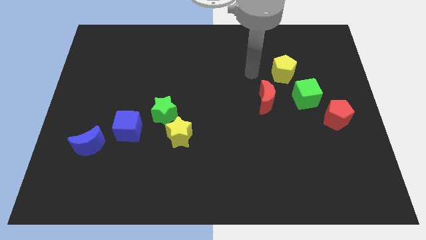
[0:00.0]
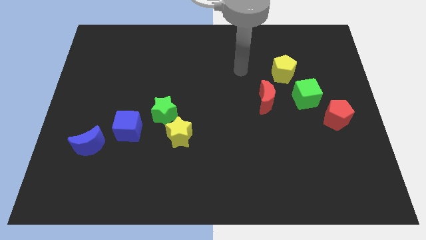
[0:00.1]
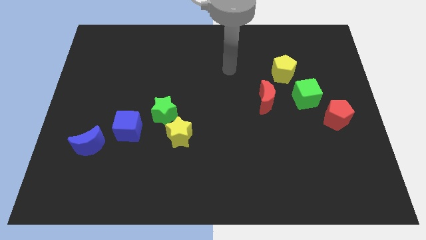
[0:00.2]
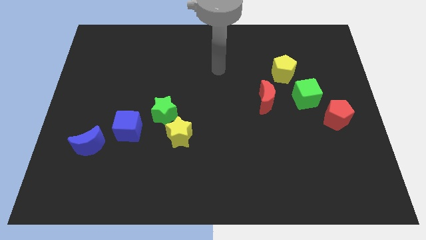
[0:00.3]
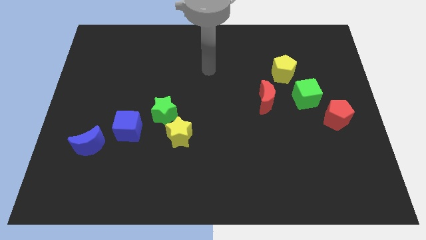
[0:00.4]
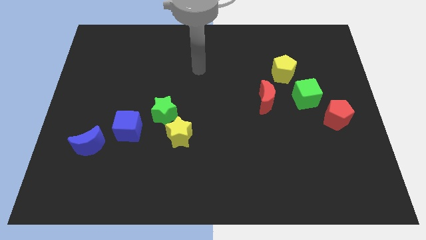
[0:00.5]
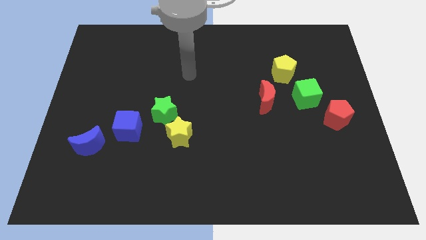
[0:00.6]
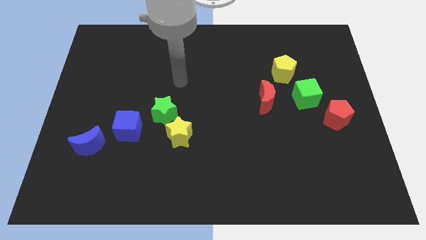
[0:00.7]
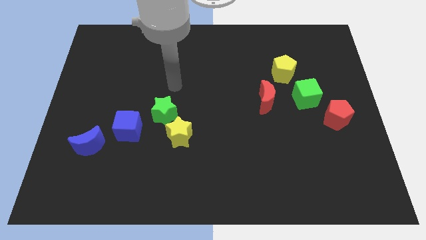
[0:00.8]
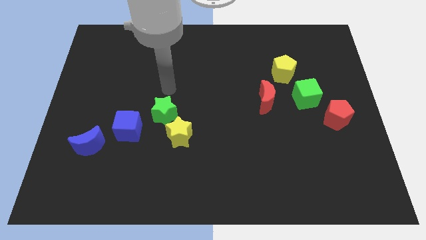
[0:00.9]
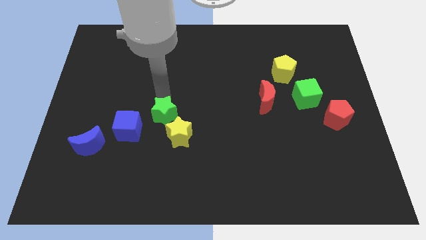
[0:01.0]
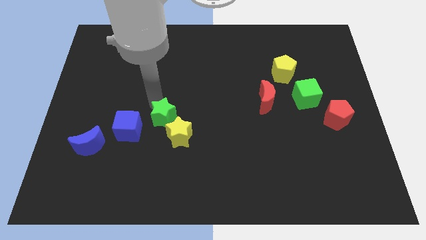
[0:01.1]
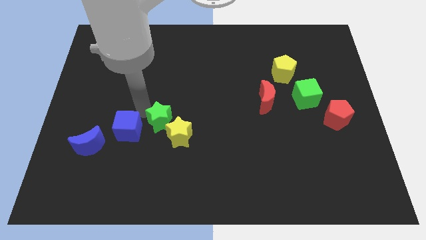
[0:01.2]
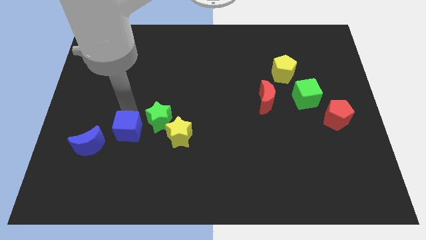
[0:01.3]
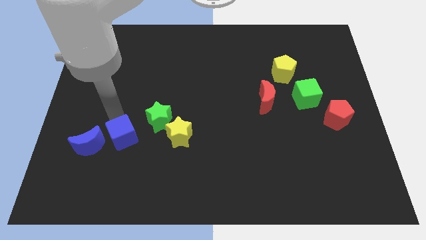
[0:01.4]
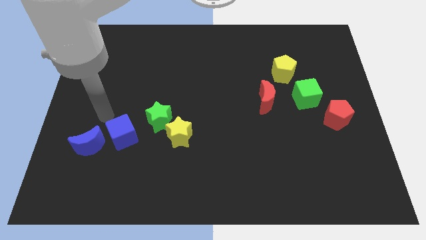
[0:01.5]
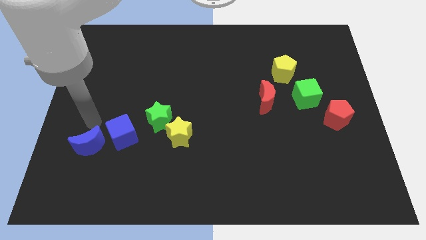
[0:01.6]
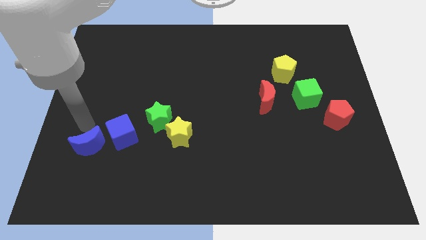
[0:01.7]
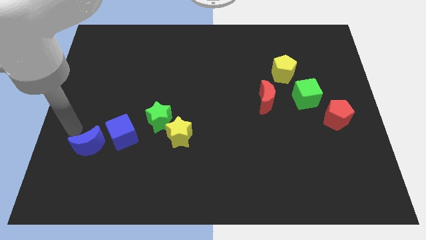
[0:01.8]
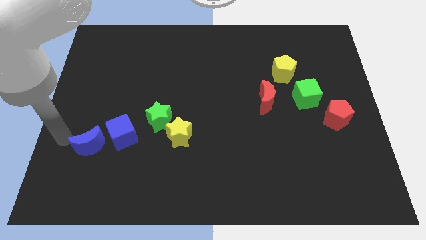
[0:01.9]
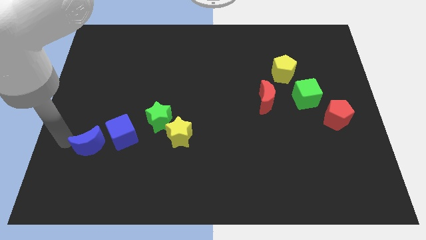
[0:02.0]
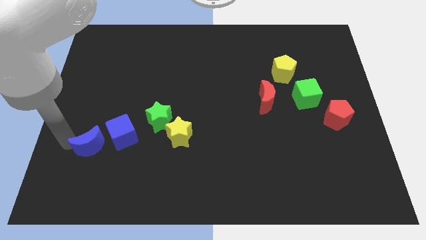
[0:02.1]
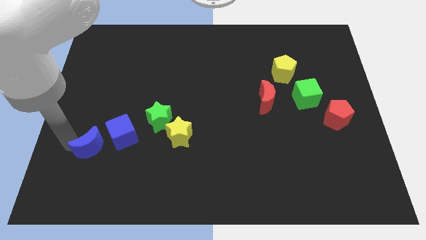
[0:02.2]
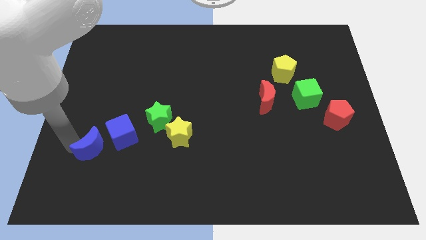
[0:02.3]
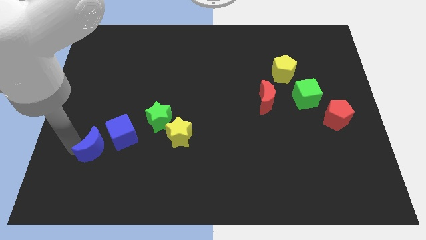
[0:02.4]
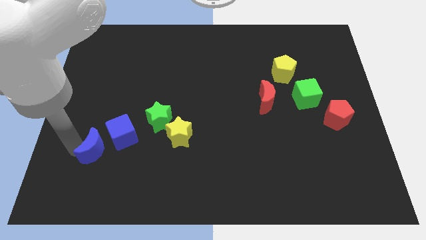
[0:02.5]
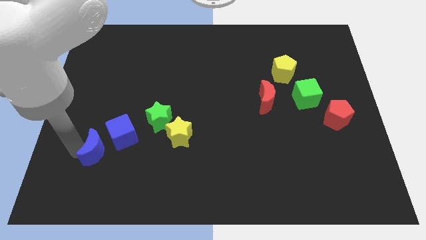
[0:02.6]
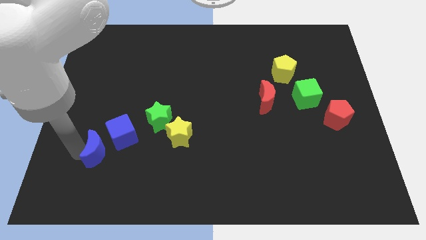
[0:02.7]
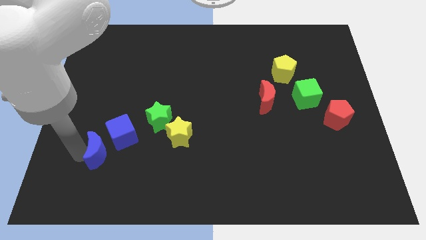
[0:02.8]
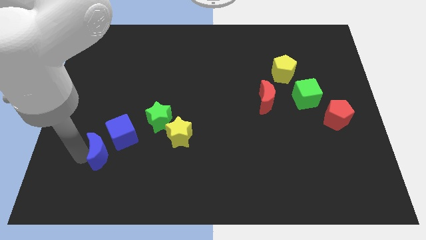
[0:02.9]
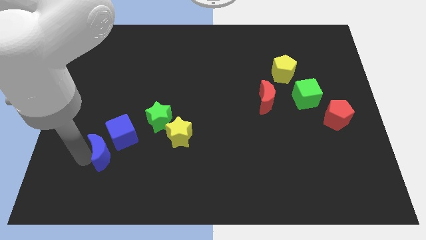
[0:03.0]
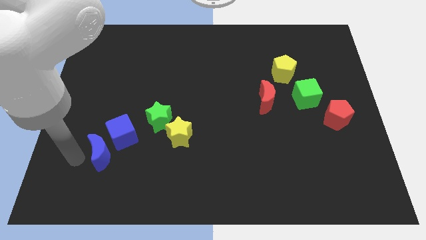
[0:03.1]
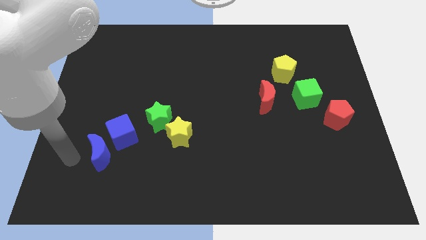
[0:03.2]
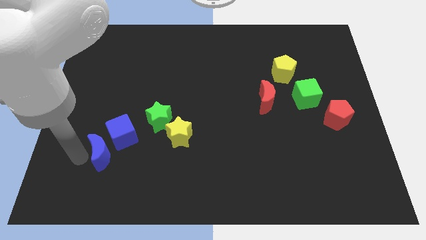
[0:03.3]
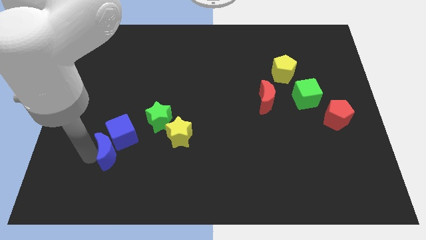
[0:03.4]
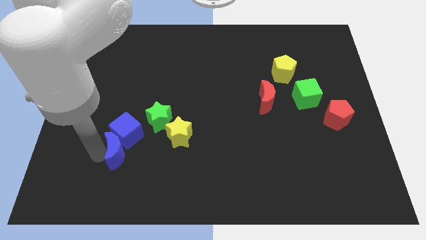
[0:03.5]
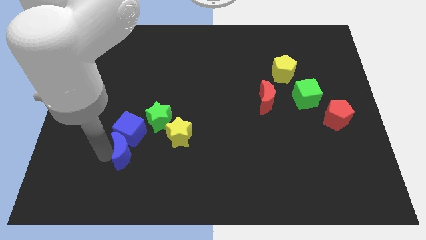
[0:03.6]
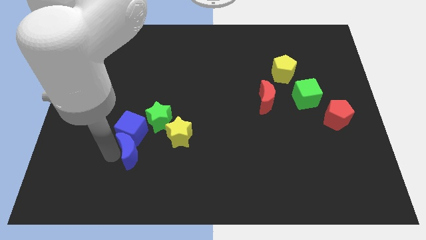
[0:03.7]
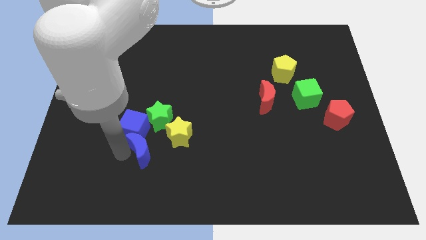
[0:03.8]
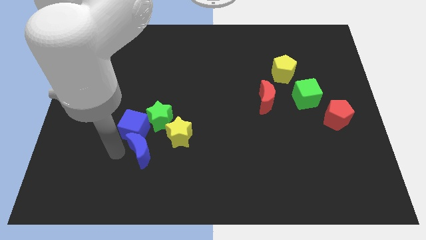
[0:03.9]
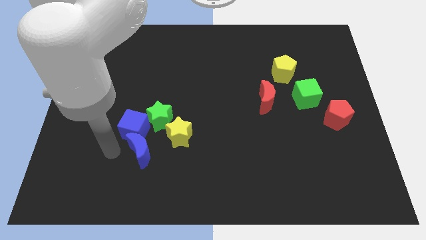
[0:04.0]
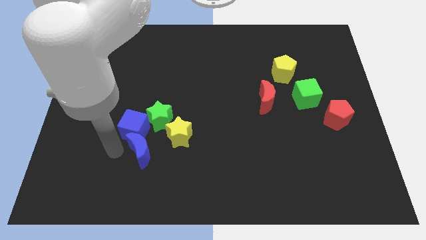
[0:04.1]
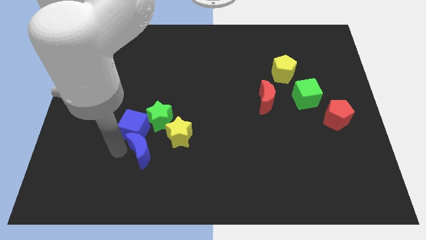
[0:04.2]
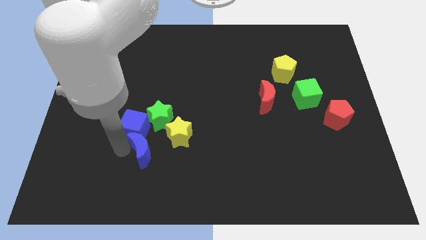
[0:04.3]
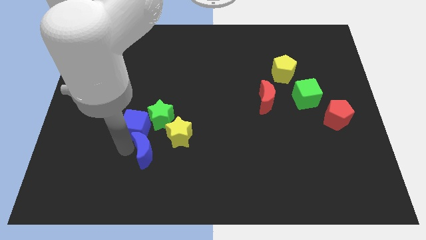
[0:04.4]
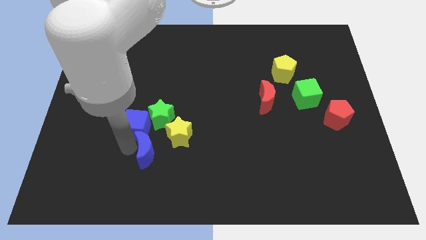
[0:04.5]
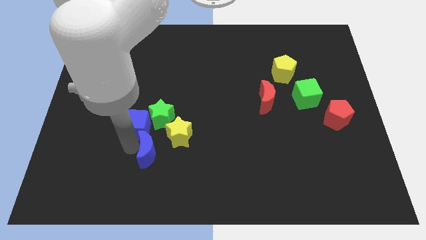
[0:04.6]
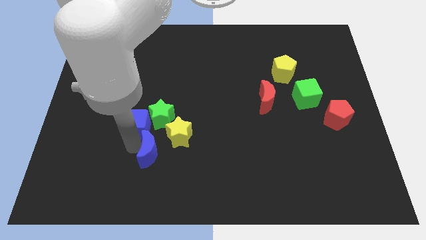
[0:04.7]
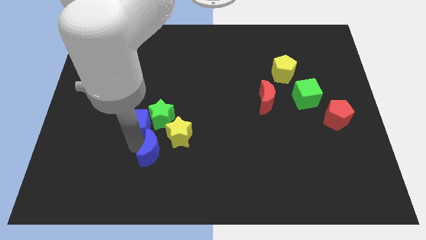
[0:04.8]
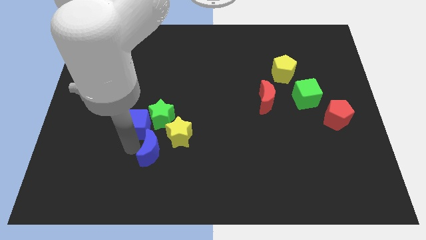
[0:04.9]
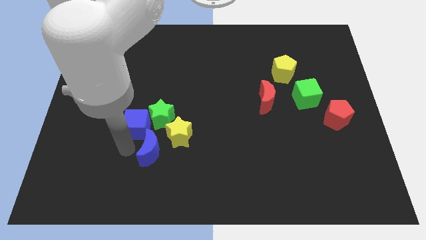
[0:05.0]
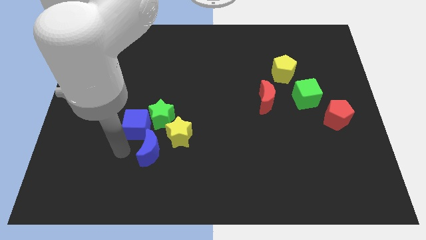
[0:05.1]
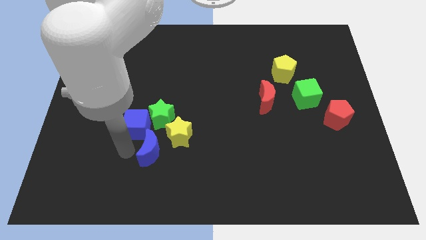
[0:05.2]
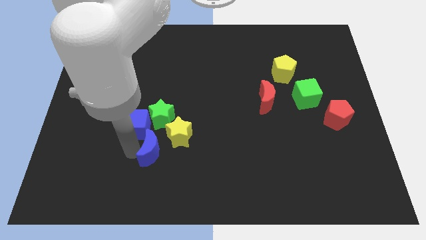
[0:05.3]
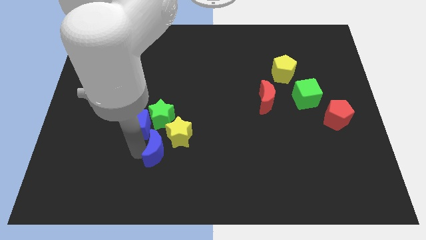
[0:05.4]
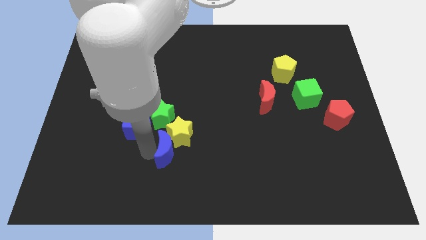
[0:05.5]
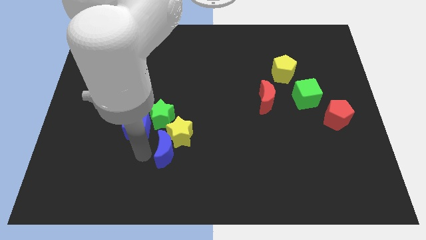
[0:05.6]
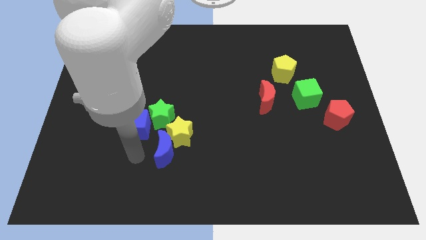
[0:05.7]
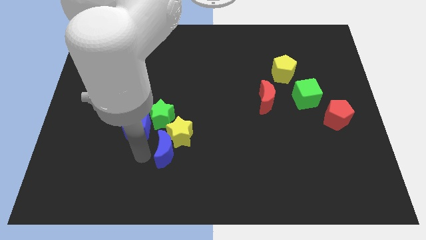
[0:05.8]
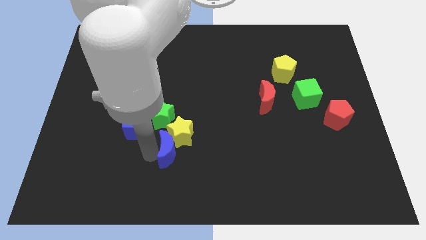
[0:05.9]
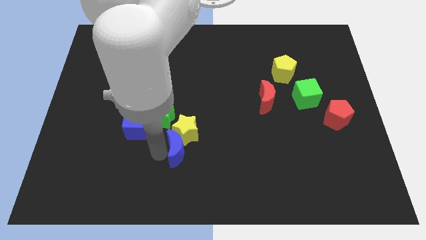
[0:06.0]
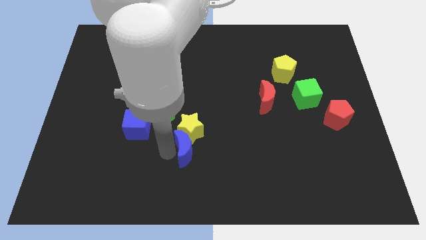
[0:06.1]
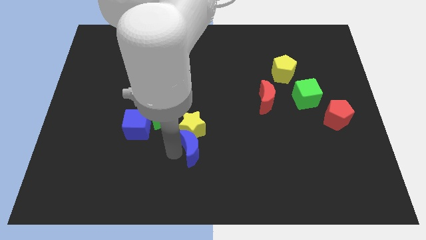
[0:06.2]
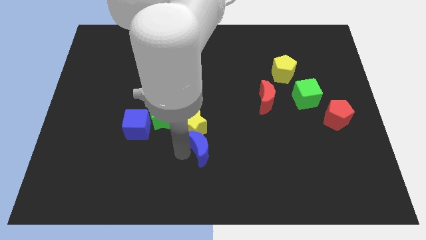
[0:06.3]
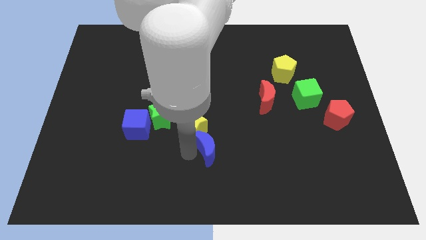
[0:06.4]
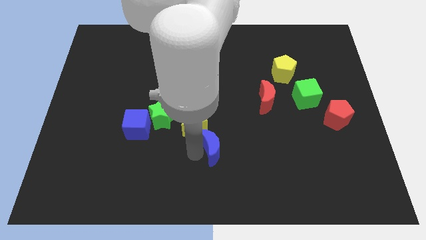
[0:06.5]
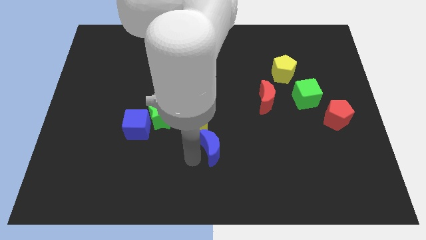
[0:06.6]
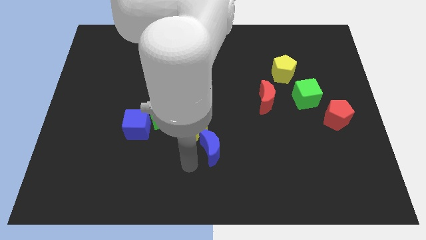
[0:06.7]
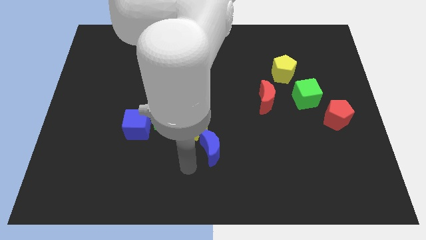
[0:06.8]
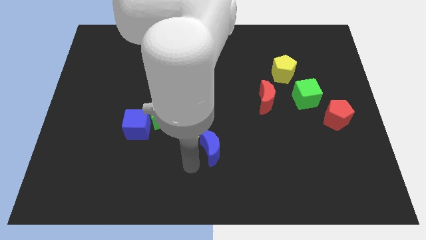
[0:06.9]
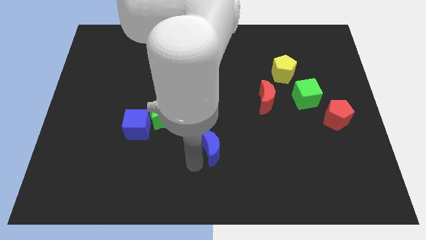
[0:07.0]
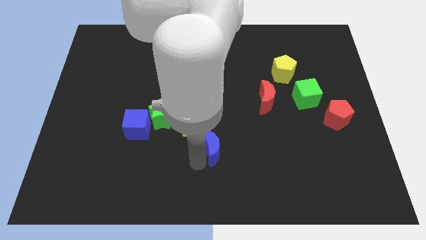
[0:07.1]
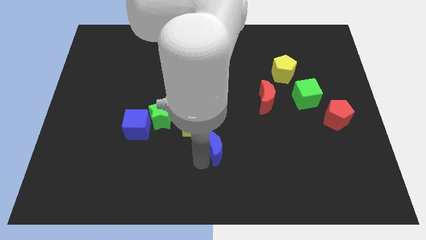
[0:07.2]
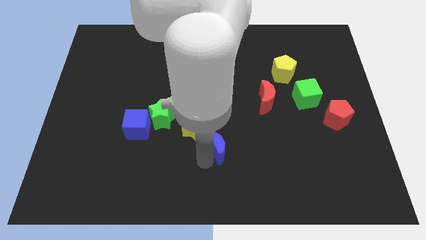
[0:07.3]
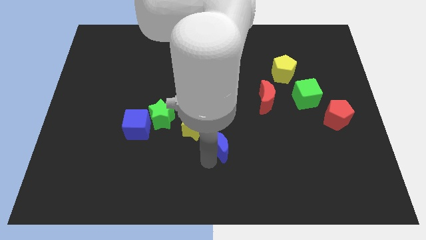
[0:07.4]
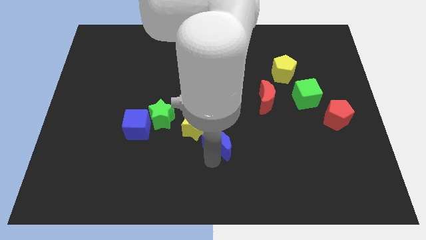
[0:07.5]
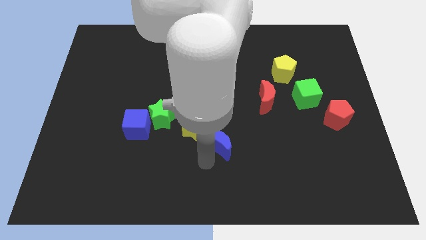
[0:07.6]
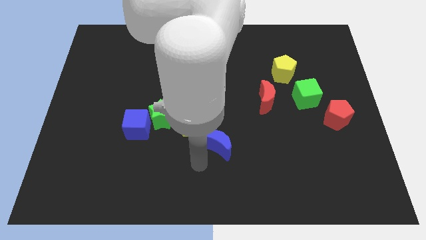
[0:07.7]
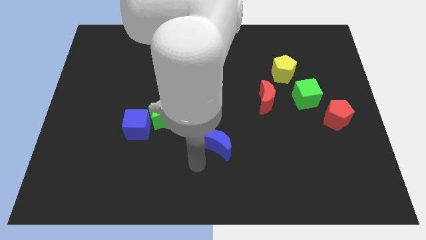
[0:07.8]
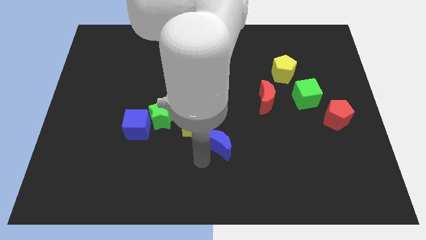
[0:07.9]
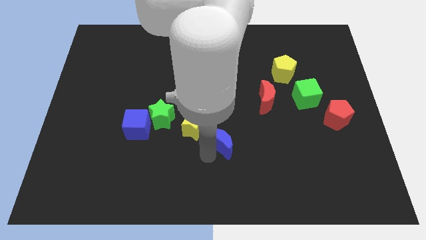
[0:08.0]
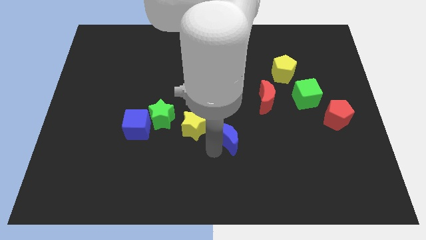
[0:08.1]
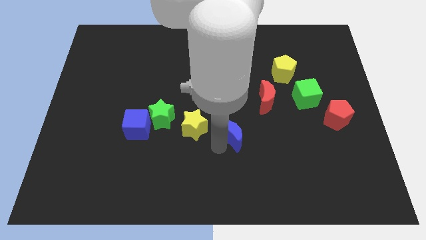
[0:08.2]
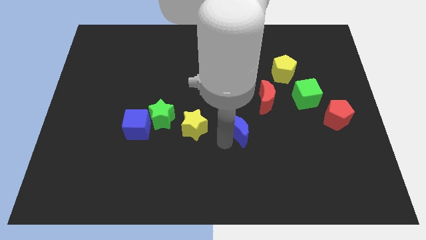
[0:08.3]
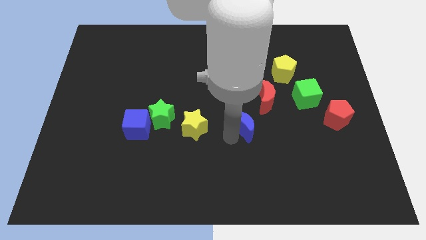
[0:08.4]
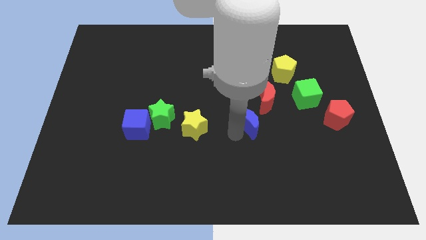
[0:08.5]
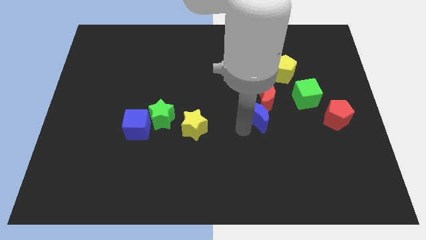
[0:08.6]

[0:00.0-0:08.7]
push the blue moon next to the red moon
